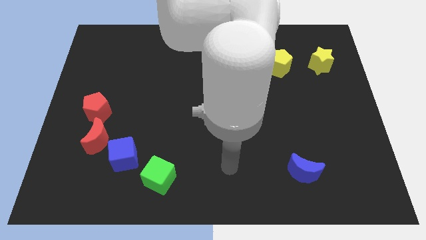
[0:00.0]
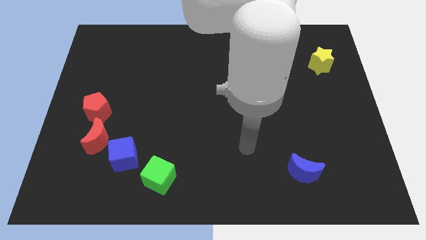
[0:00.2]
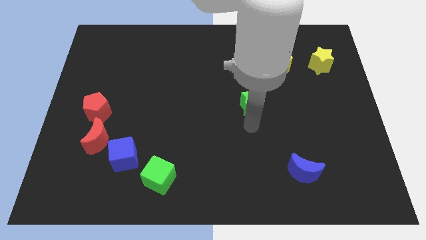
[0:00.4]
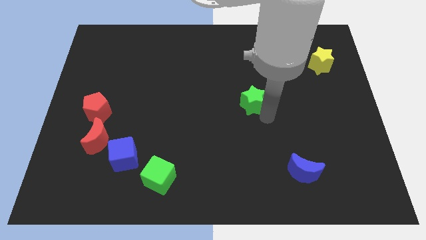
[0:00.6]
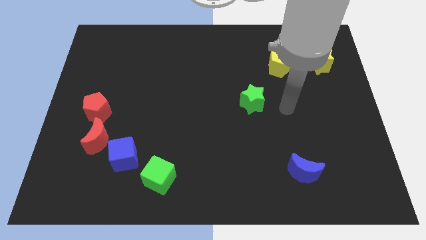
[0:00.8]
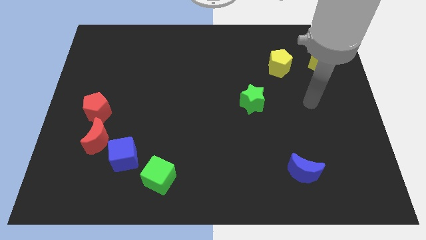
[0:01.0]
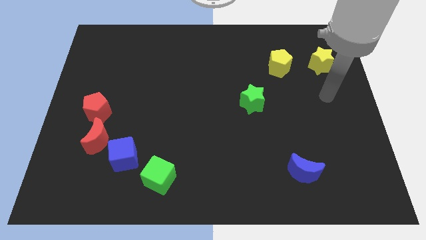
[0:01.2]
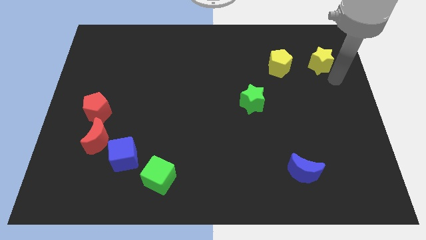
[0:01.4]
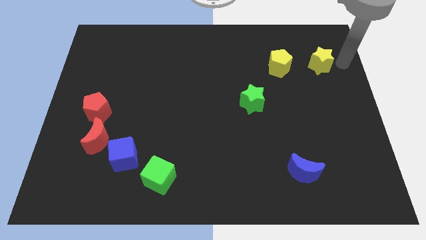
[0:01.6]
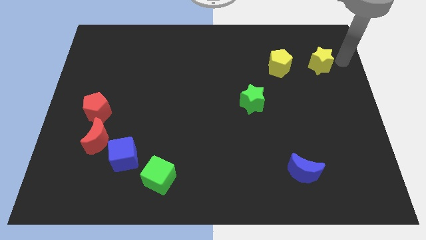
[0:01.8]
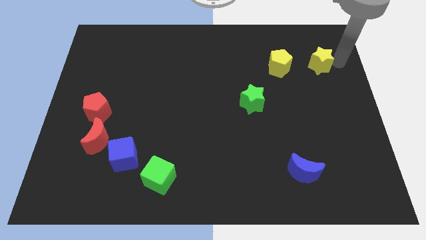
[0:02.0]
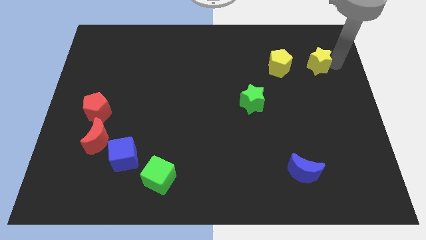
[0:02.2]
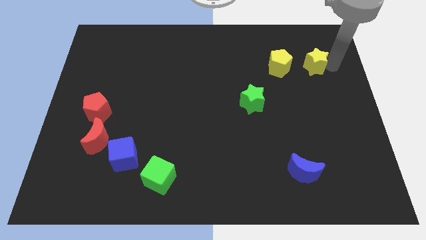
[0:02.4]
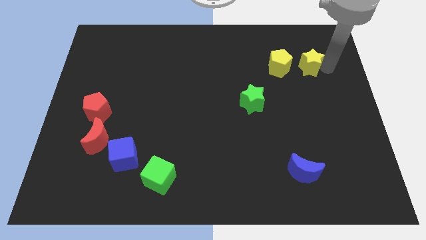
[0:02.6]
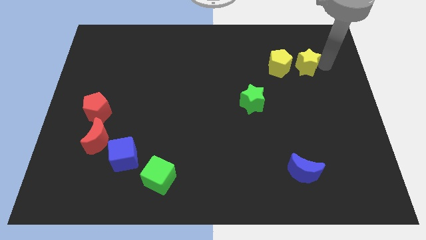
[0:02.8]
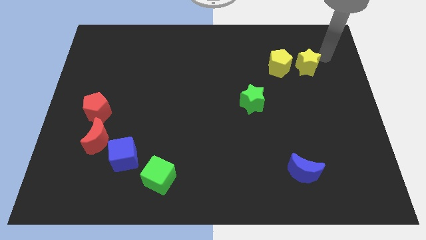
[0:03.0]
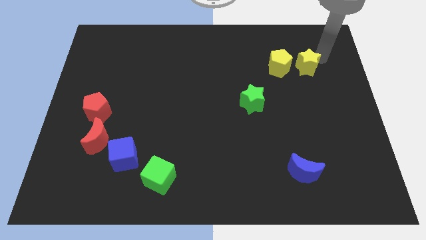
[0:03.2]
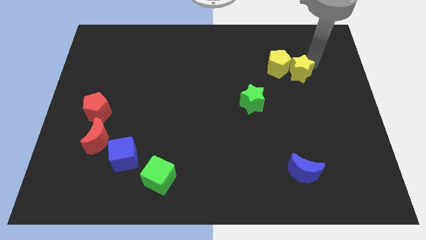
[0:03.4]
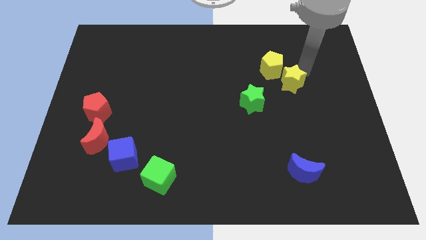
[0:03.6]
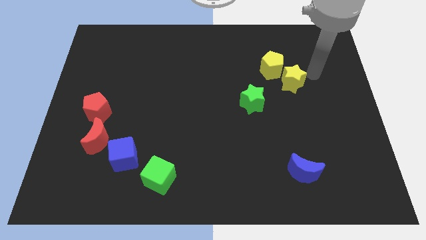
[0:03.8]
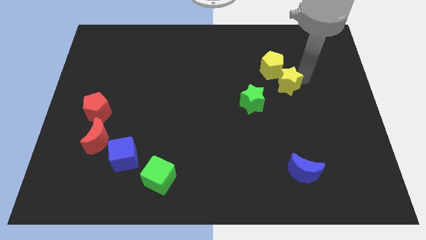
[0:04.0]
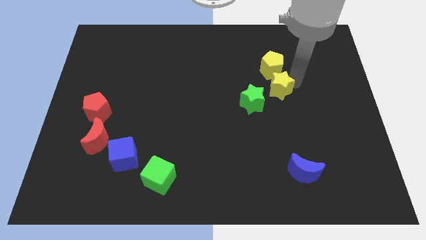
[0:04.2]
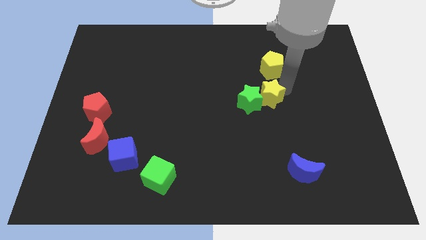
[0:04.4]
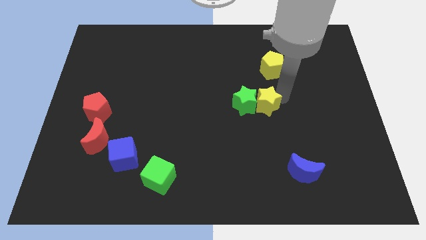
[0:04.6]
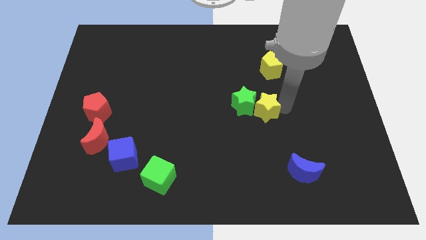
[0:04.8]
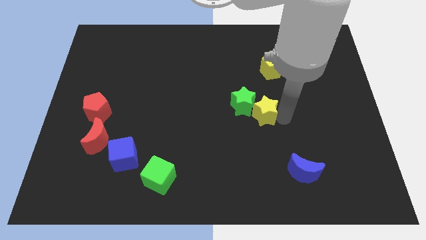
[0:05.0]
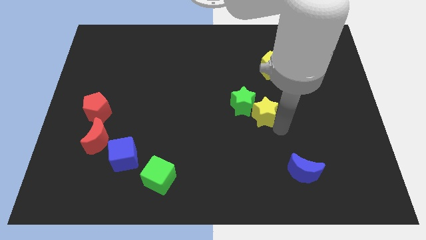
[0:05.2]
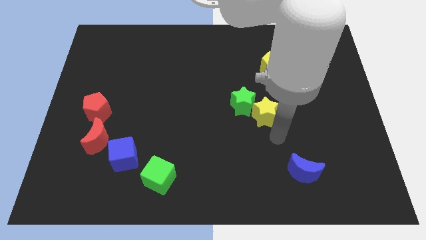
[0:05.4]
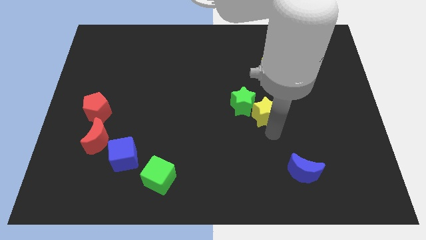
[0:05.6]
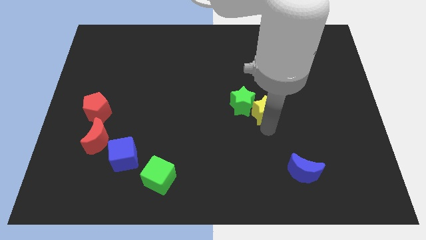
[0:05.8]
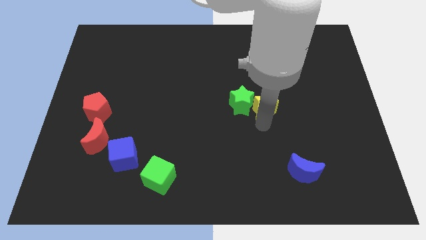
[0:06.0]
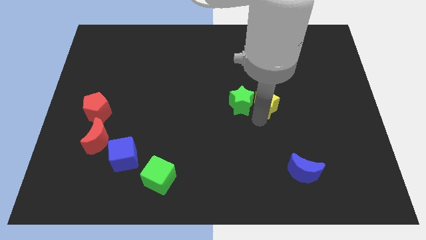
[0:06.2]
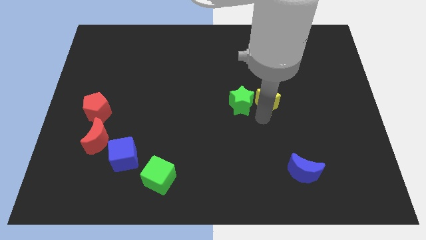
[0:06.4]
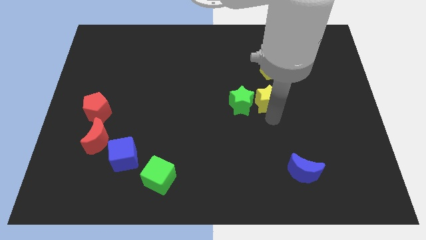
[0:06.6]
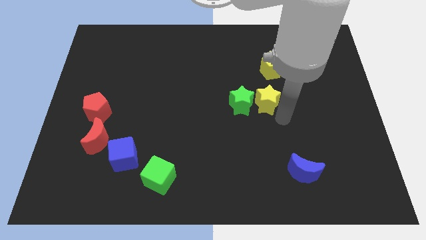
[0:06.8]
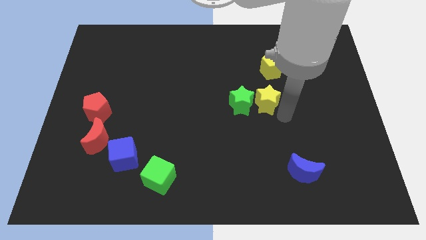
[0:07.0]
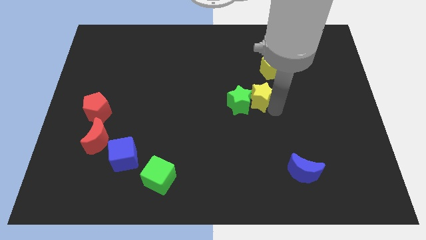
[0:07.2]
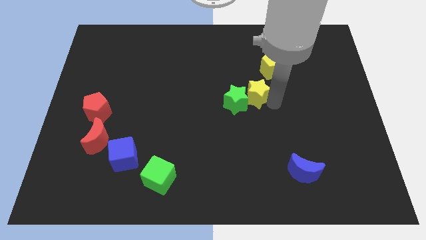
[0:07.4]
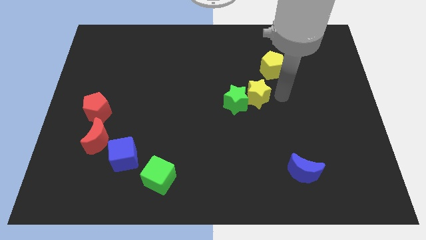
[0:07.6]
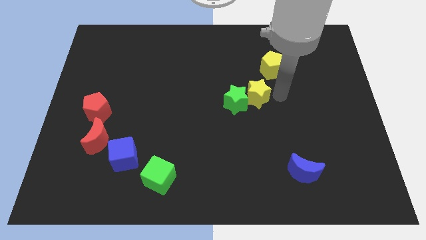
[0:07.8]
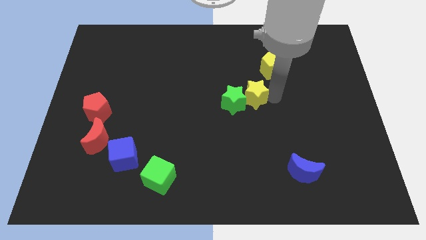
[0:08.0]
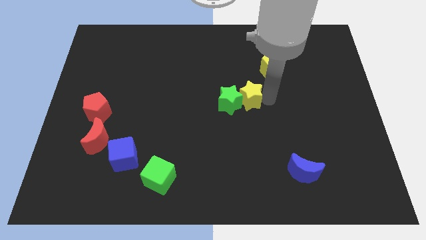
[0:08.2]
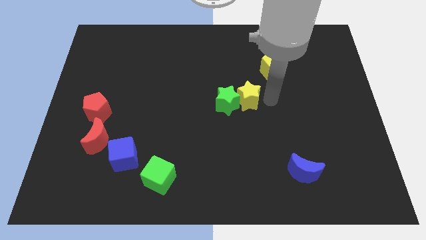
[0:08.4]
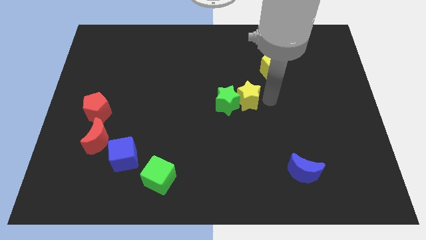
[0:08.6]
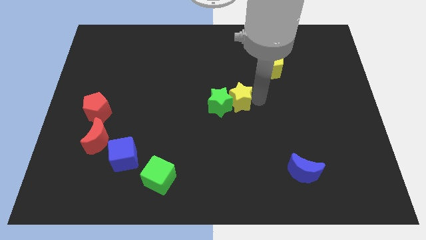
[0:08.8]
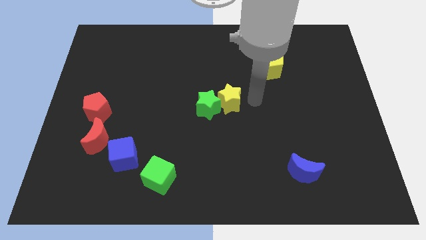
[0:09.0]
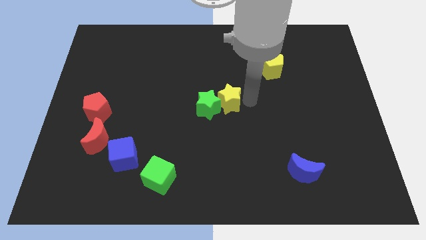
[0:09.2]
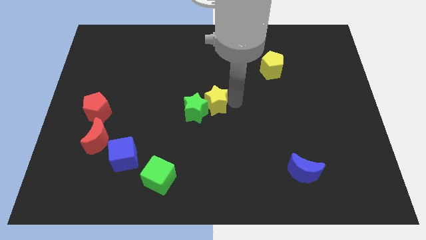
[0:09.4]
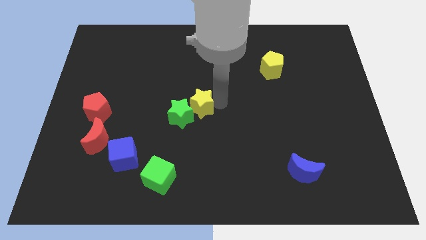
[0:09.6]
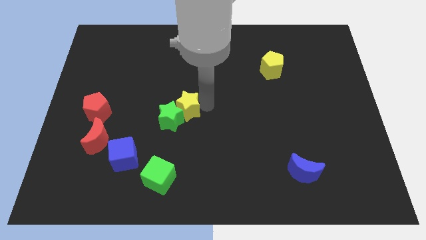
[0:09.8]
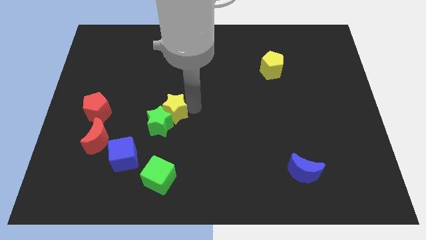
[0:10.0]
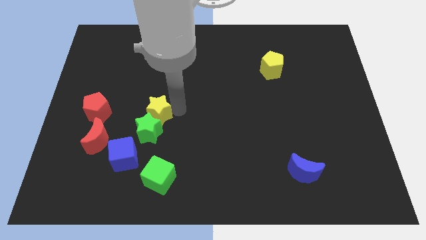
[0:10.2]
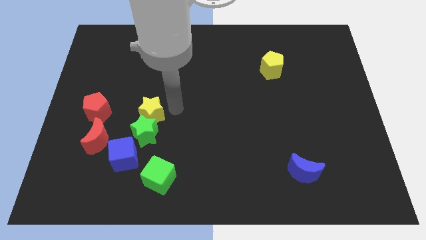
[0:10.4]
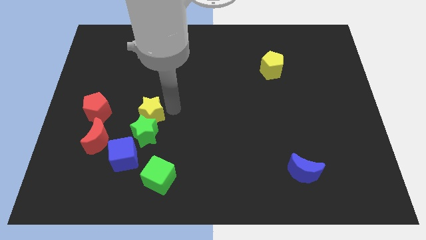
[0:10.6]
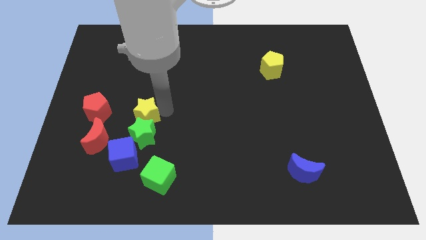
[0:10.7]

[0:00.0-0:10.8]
put the yellow star diagonally up and to the right of the red moon

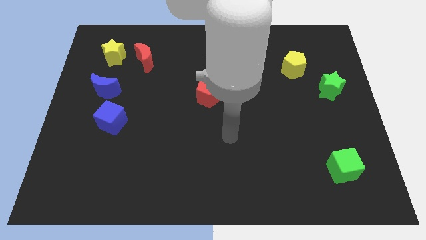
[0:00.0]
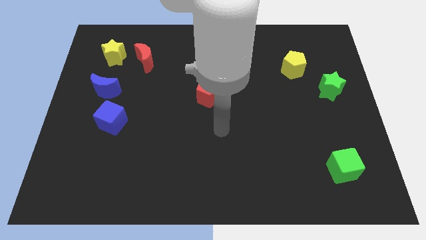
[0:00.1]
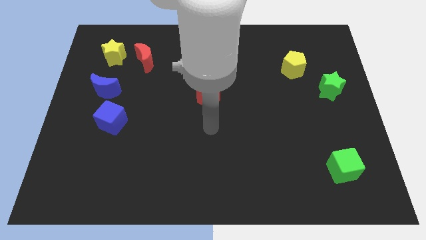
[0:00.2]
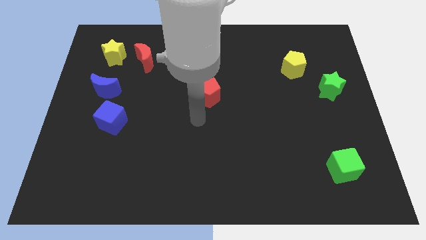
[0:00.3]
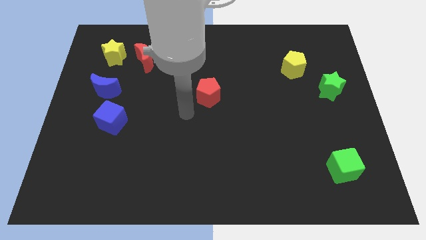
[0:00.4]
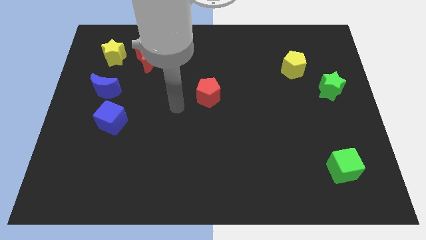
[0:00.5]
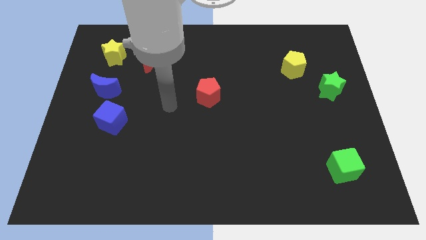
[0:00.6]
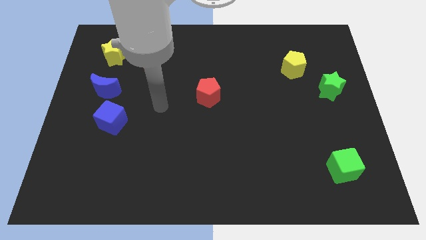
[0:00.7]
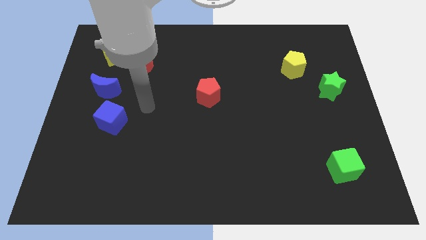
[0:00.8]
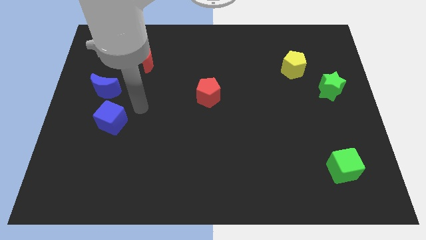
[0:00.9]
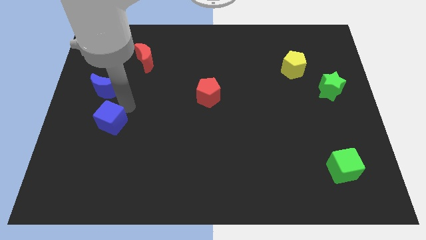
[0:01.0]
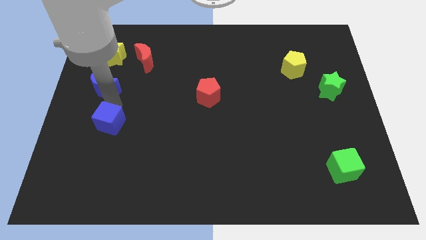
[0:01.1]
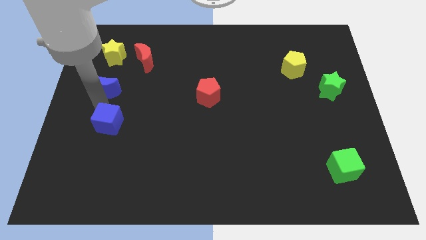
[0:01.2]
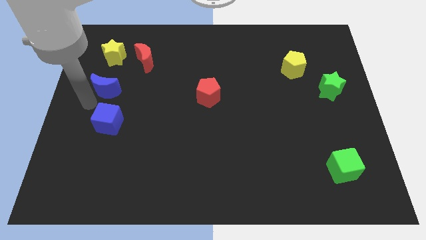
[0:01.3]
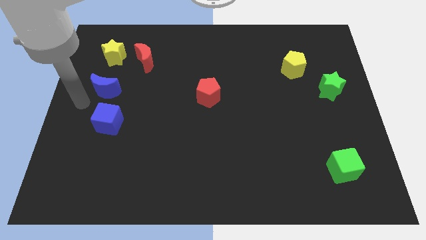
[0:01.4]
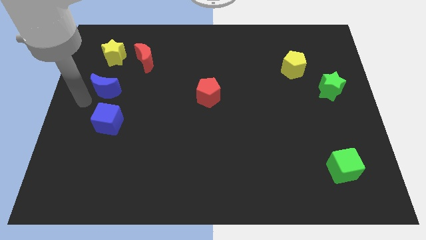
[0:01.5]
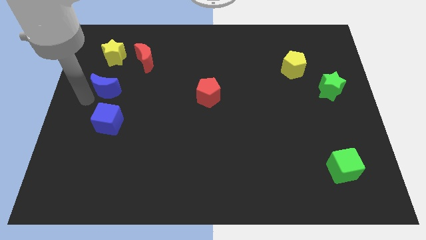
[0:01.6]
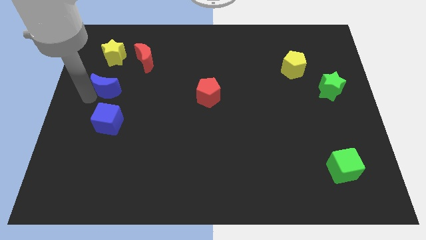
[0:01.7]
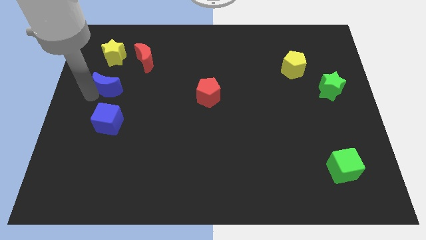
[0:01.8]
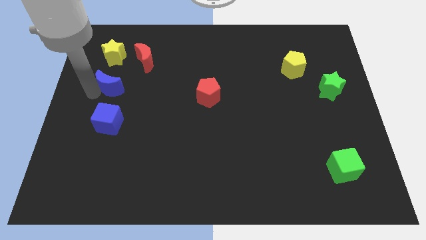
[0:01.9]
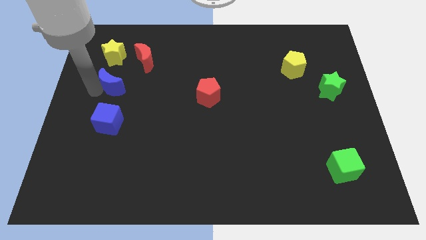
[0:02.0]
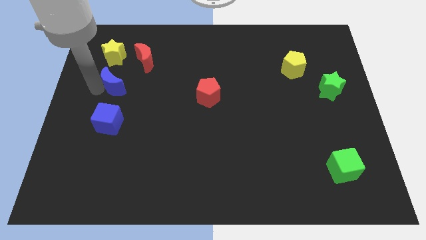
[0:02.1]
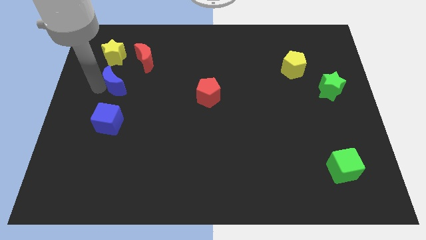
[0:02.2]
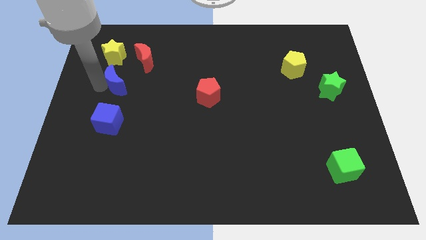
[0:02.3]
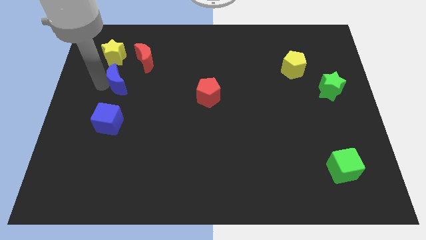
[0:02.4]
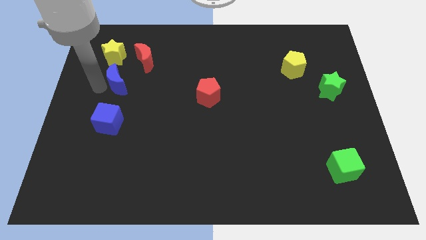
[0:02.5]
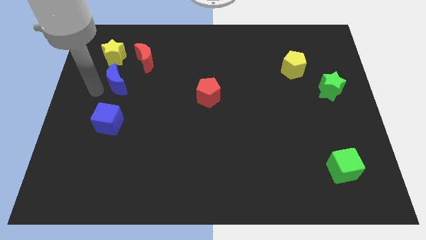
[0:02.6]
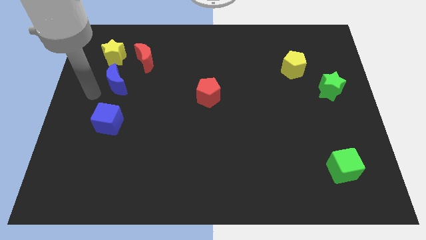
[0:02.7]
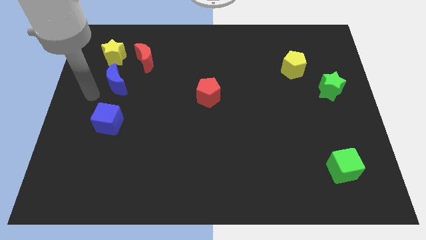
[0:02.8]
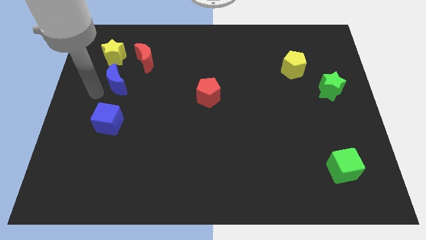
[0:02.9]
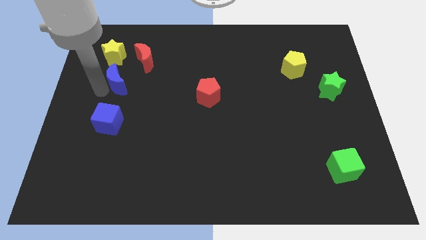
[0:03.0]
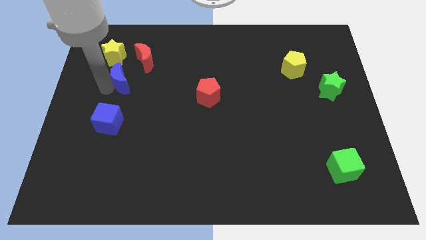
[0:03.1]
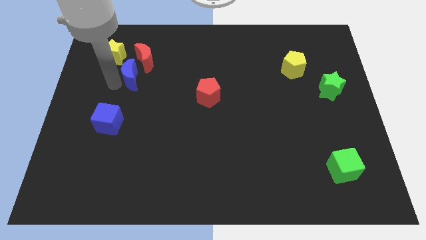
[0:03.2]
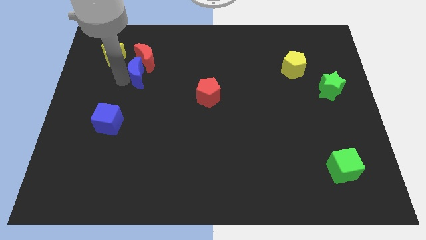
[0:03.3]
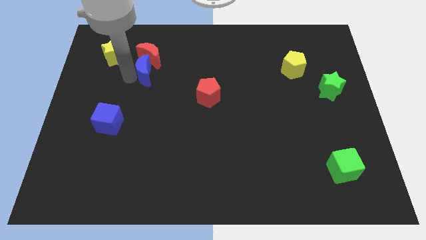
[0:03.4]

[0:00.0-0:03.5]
push the blue moon to the bottom right side of the red moon
